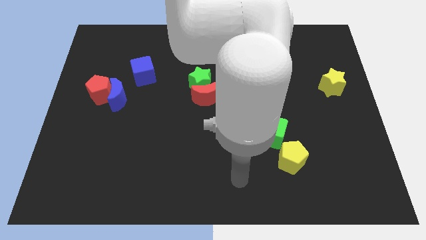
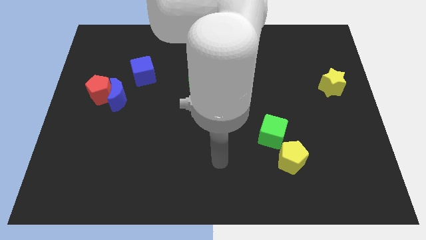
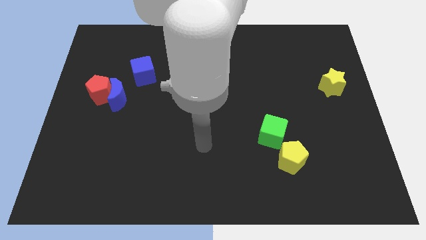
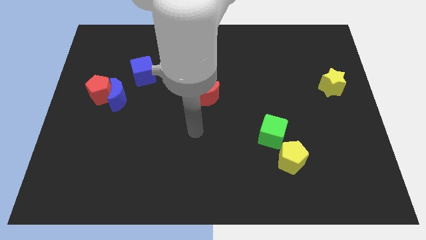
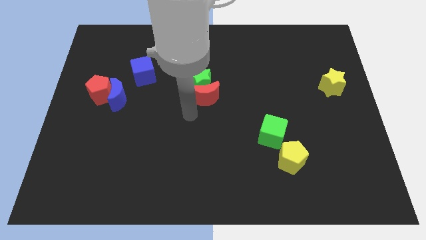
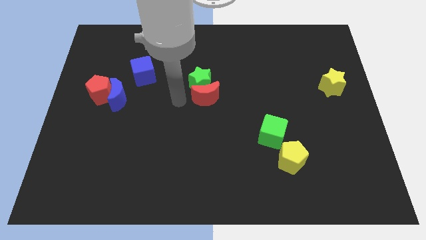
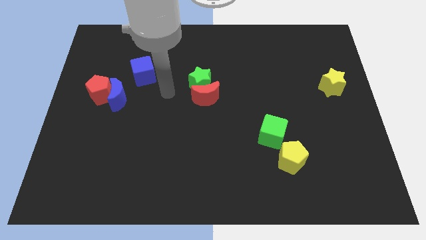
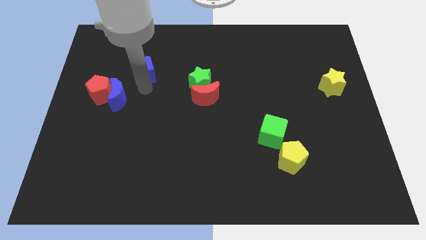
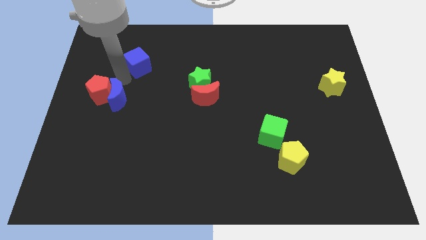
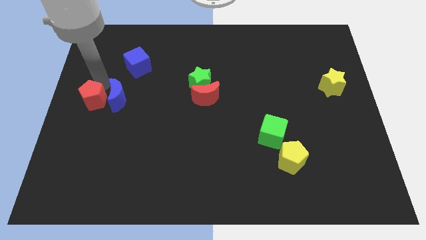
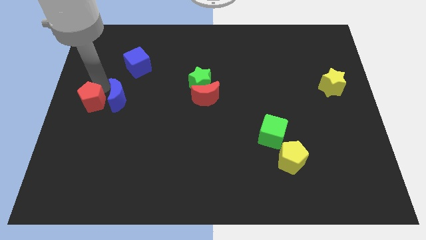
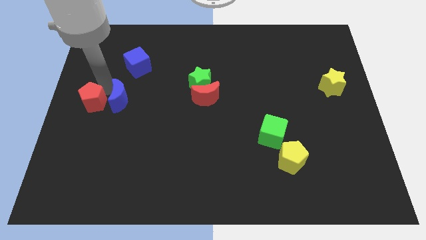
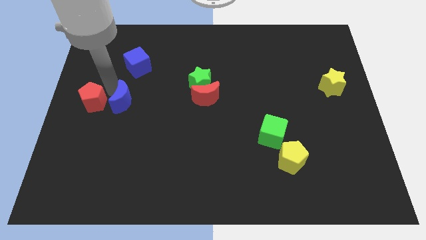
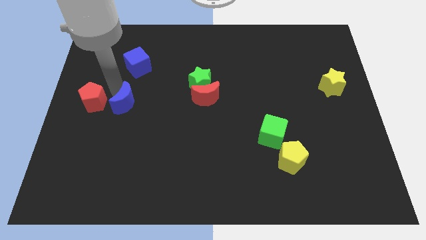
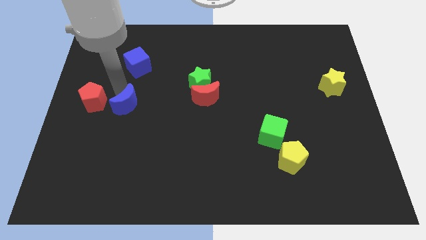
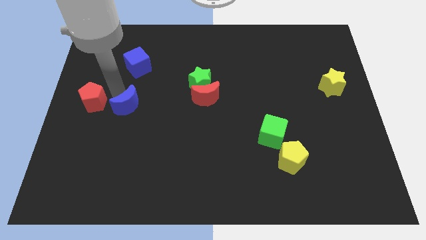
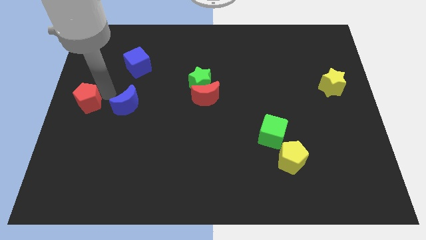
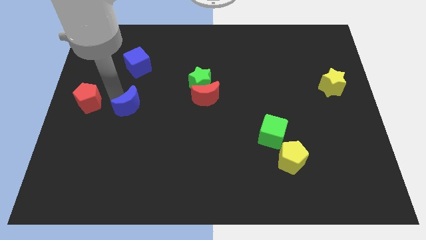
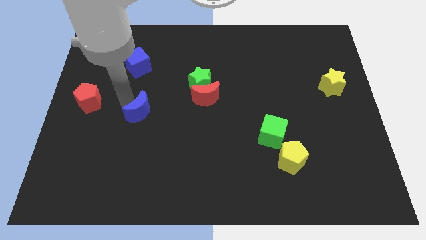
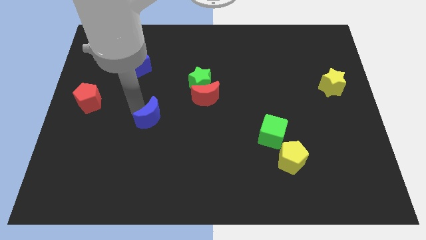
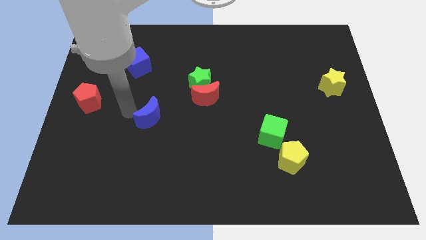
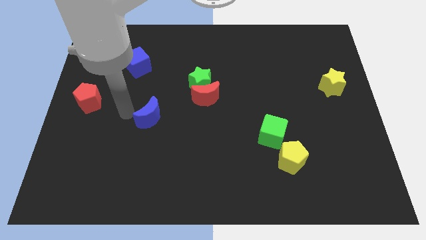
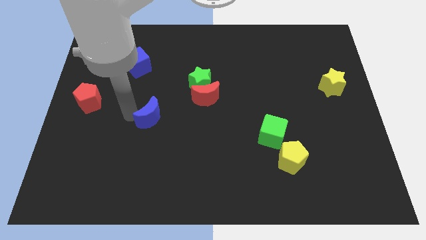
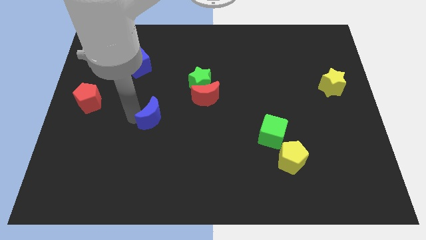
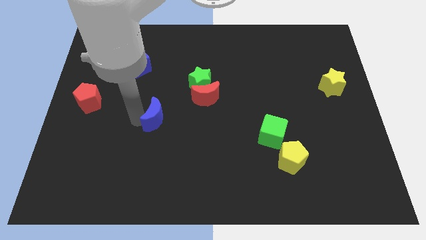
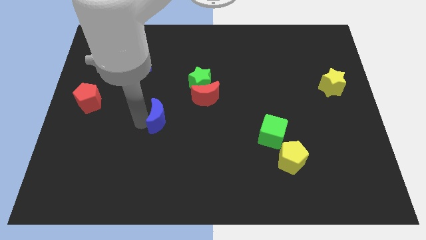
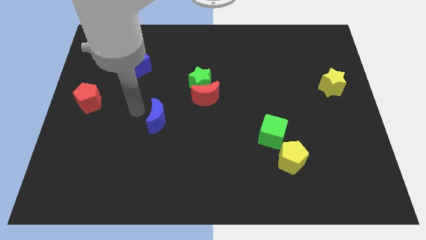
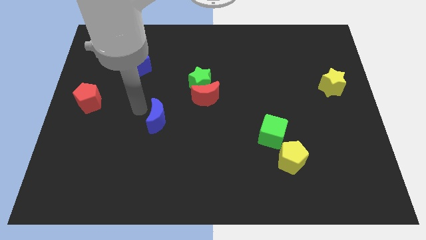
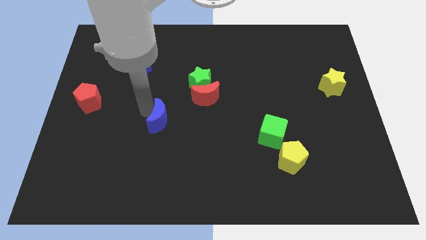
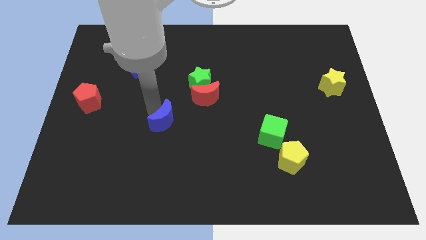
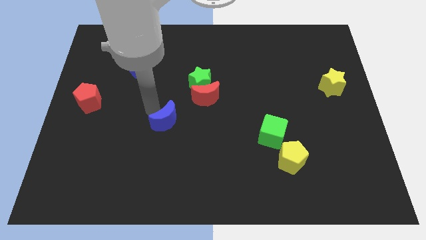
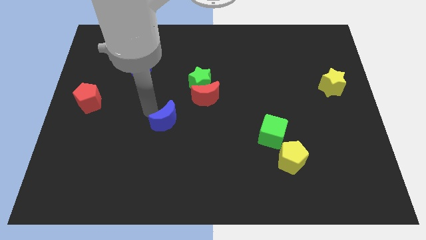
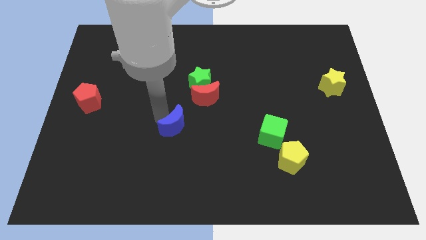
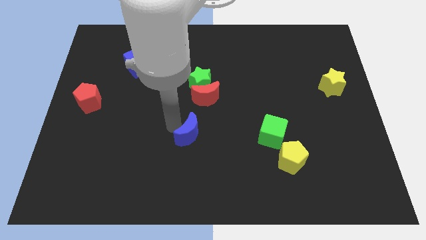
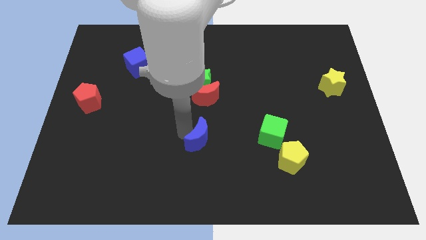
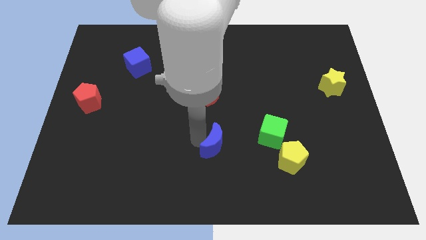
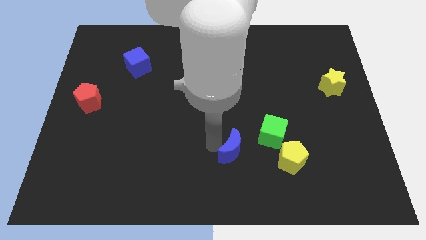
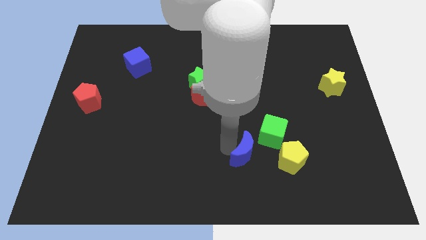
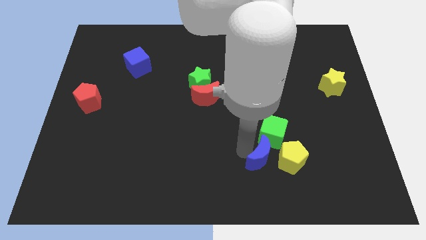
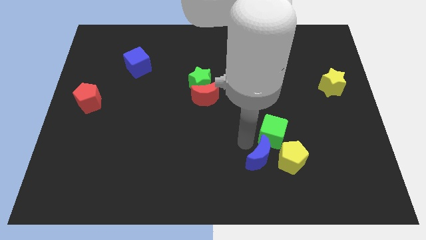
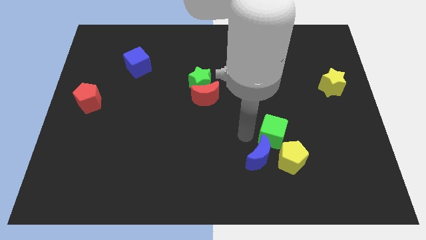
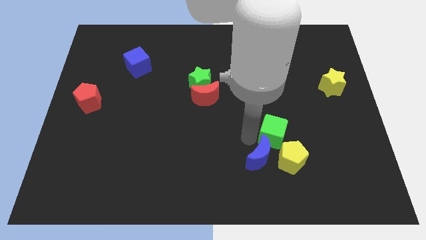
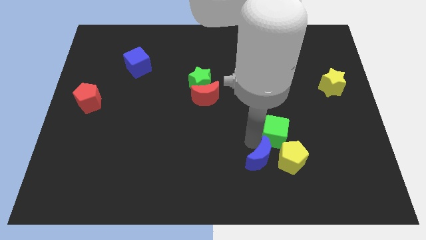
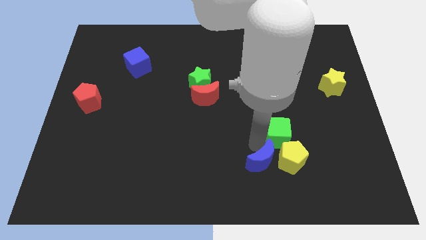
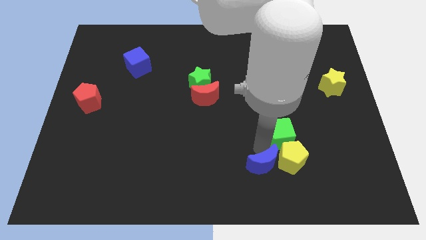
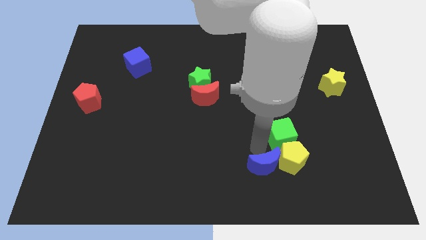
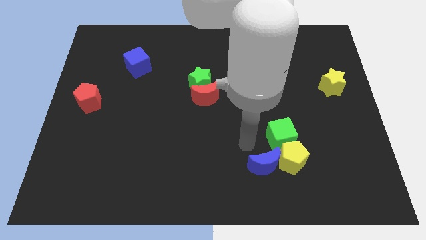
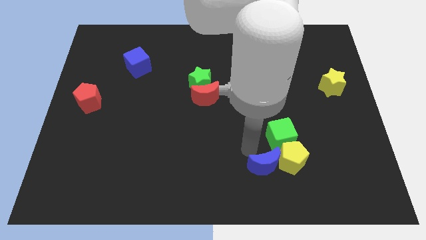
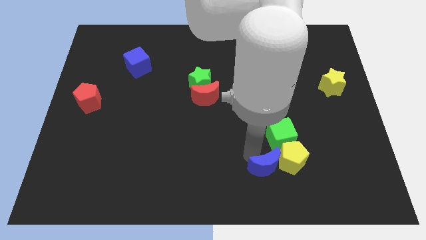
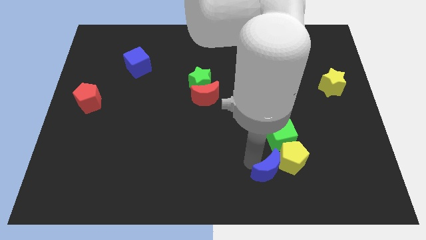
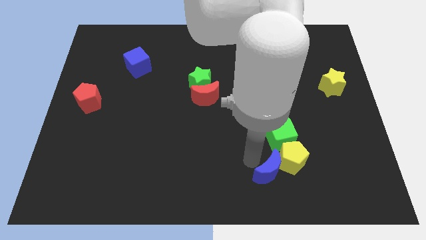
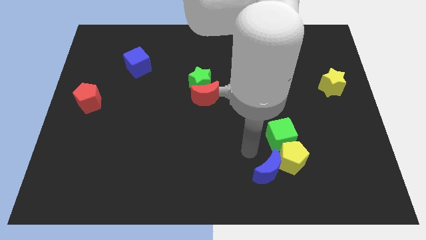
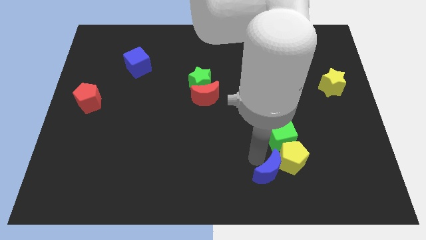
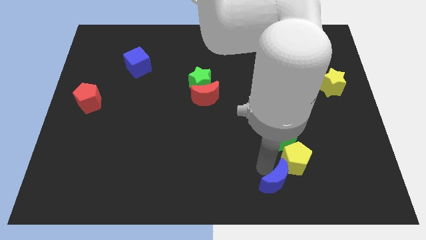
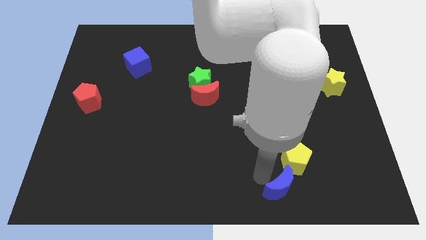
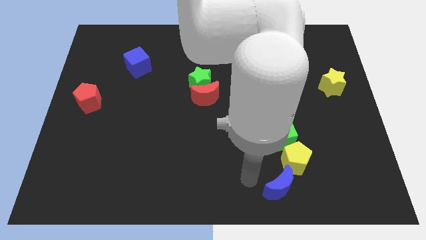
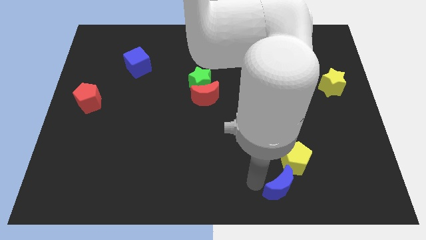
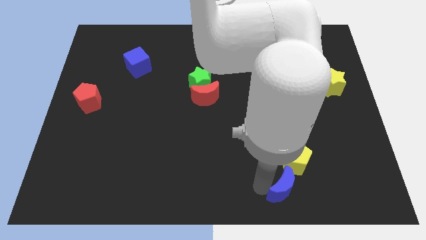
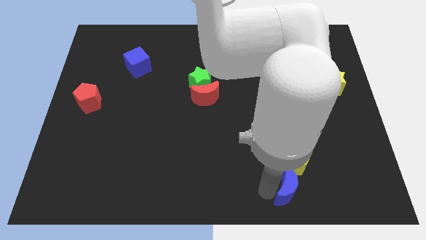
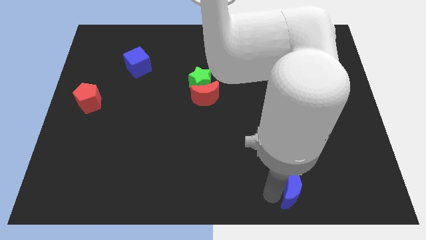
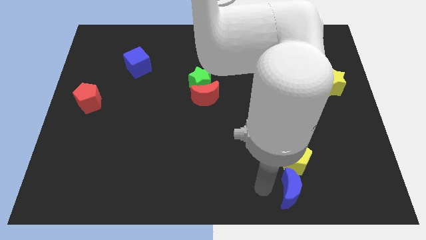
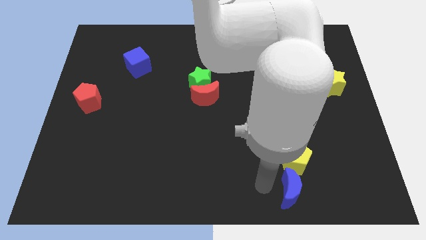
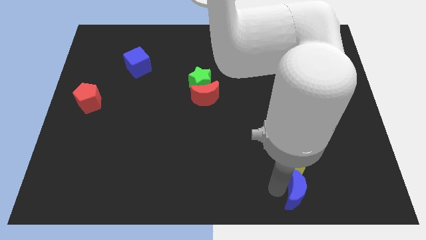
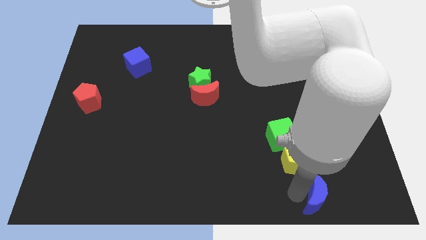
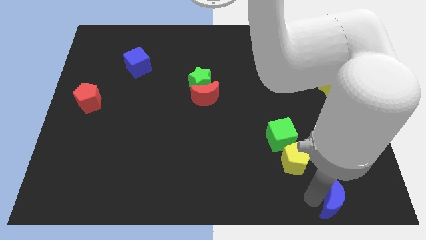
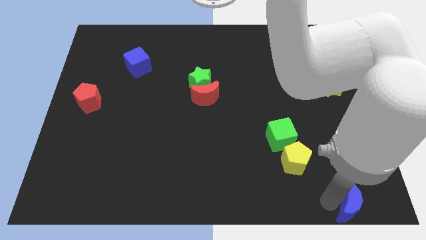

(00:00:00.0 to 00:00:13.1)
put the blue moon to the bottom right

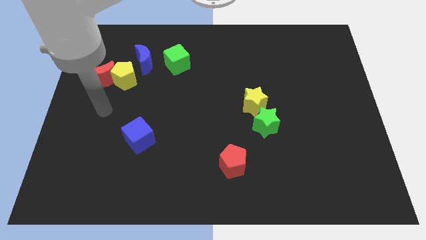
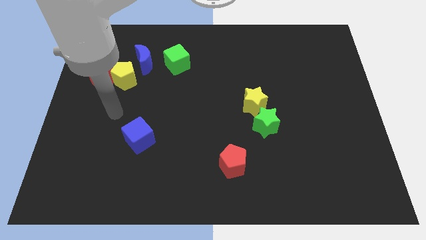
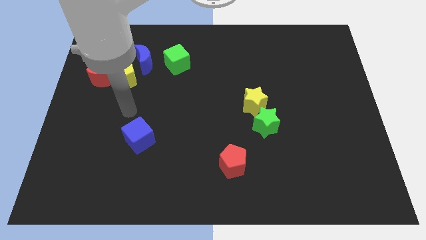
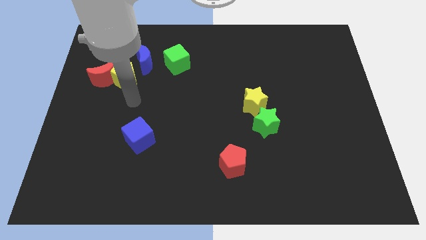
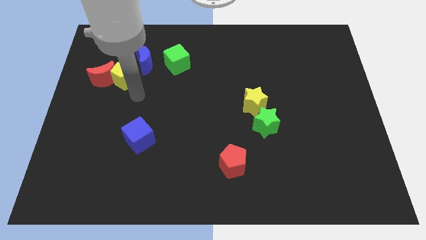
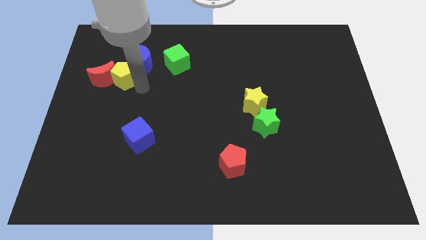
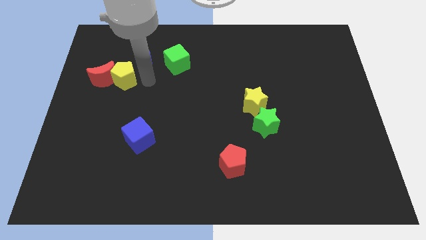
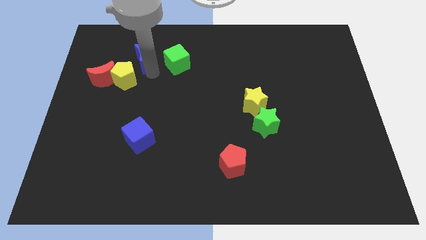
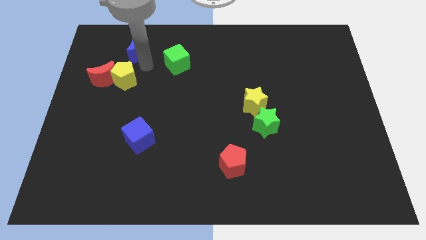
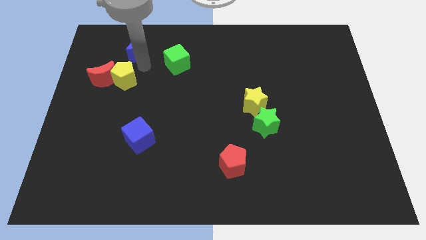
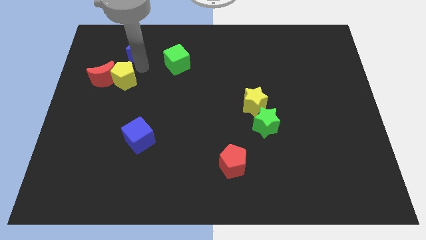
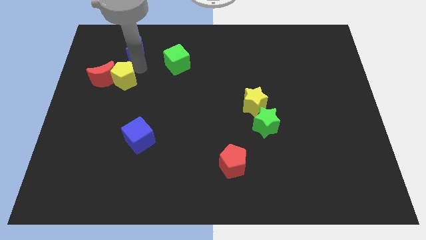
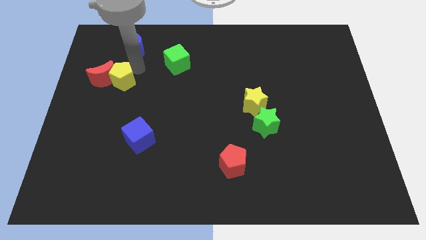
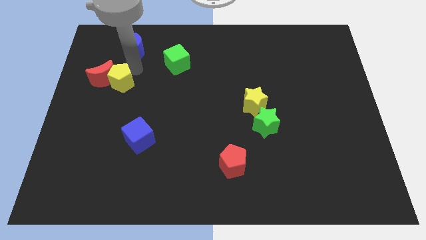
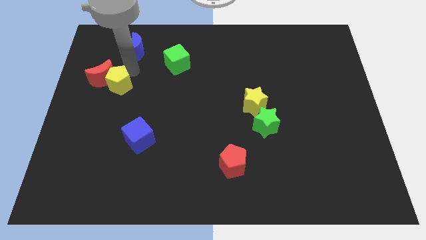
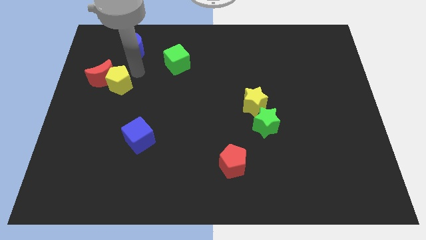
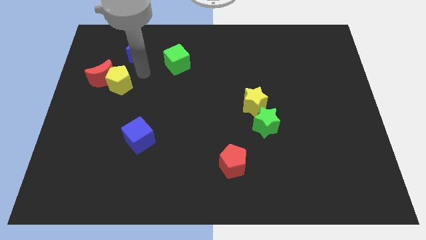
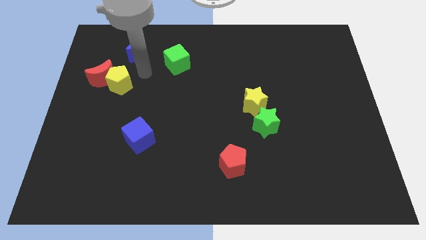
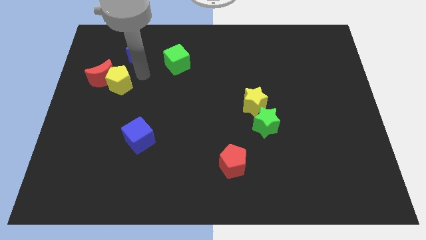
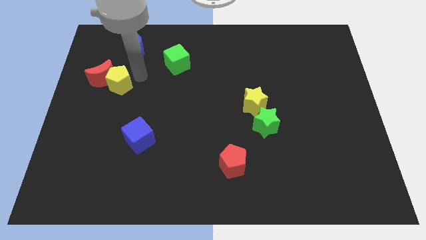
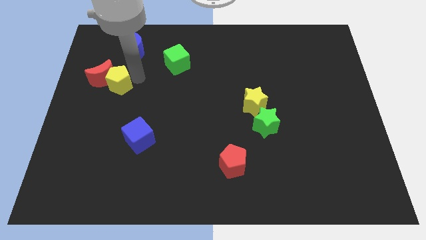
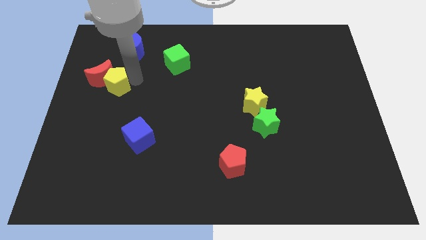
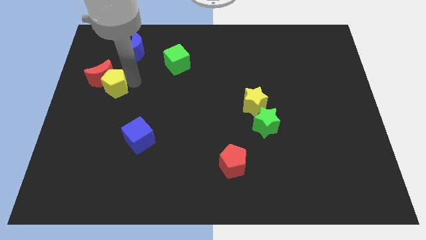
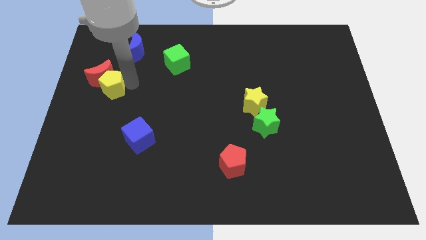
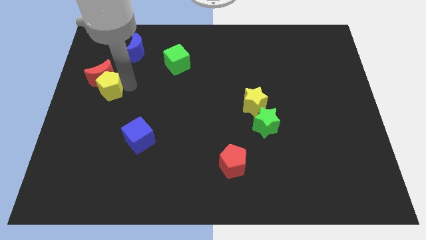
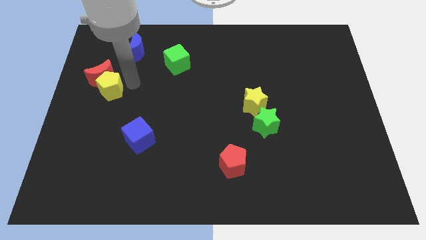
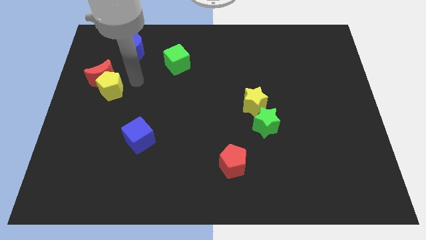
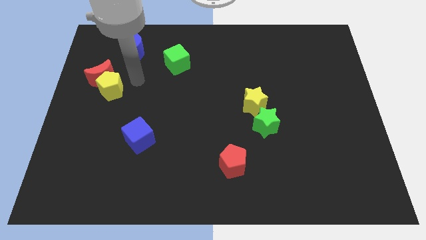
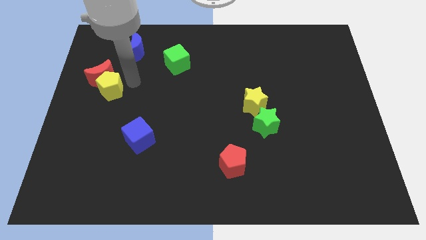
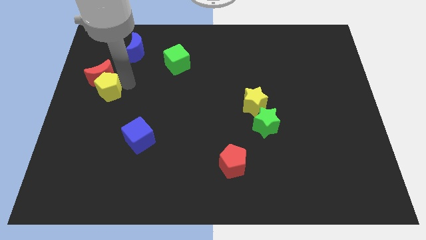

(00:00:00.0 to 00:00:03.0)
put the yellow pentagon to the left side
